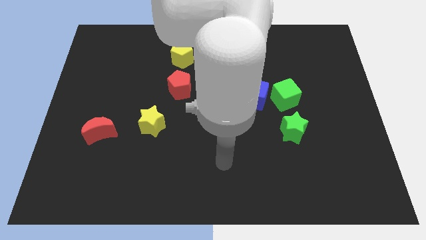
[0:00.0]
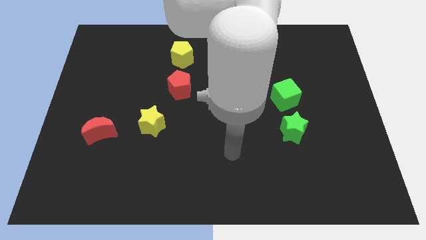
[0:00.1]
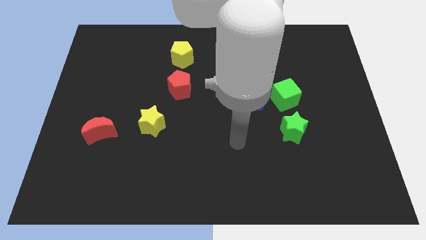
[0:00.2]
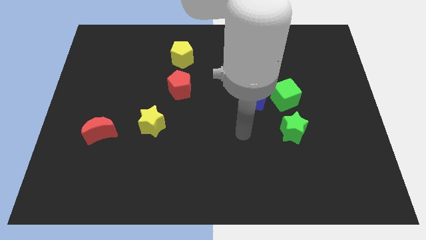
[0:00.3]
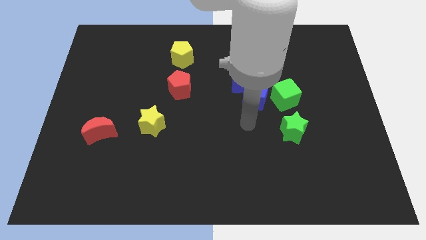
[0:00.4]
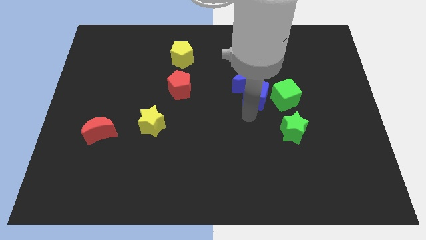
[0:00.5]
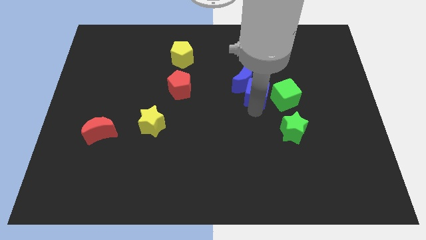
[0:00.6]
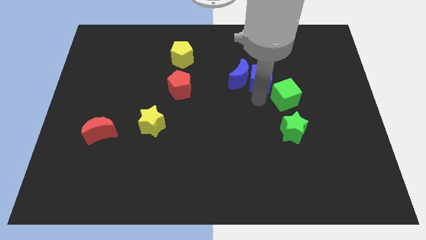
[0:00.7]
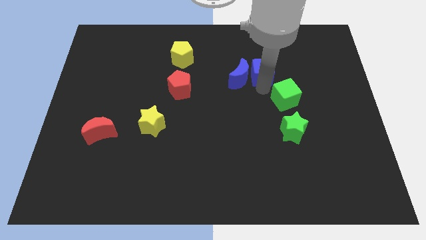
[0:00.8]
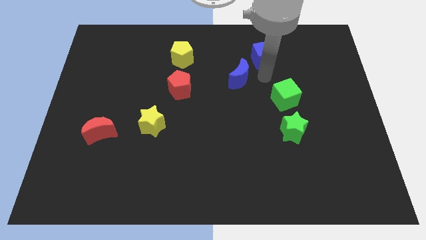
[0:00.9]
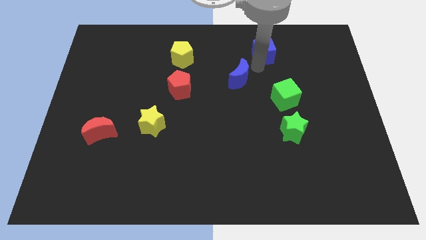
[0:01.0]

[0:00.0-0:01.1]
move the blue moon away from the blue cube

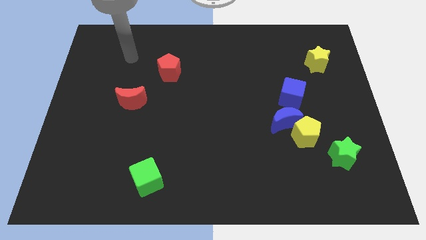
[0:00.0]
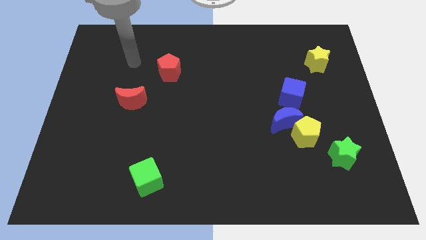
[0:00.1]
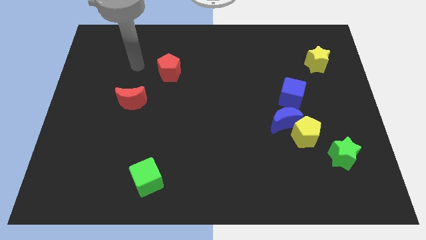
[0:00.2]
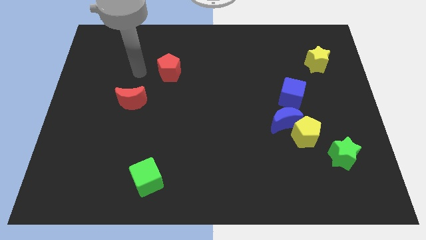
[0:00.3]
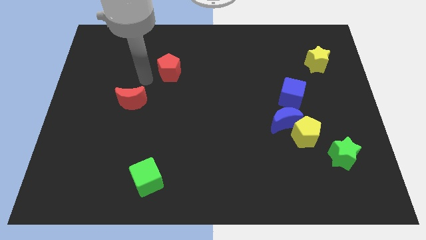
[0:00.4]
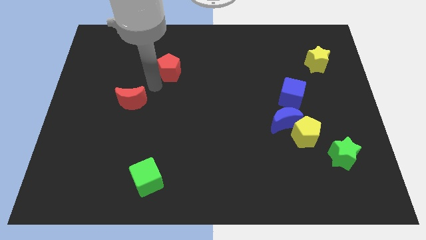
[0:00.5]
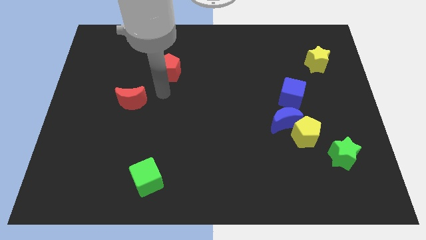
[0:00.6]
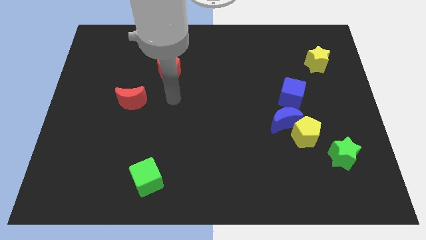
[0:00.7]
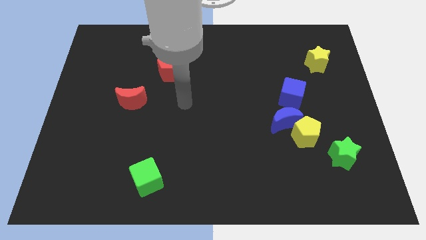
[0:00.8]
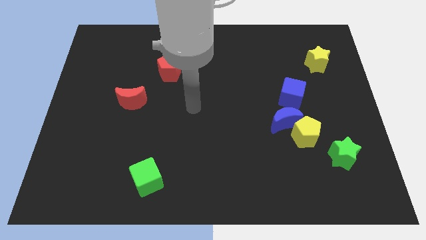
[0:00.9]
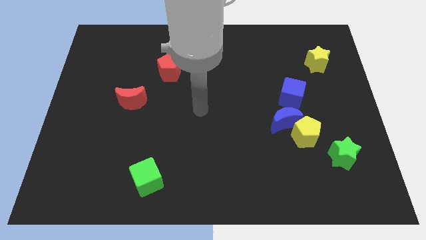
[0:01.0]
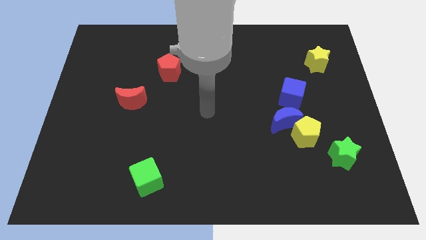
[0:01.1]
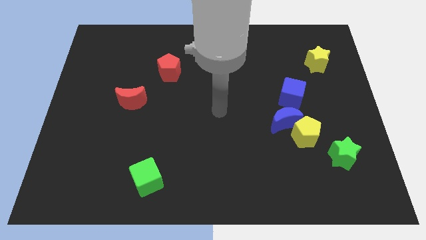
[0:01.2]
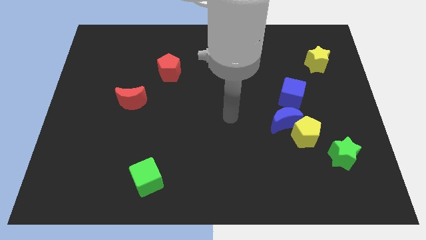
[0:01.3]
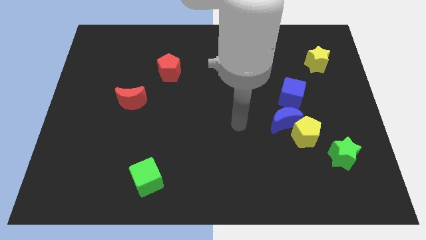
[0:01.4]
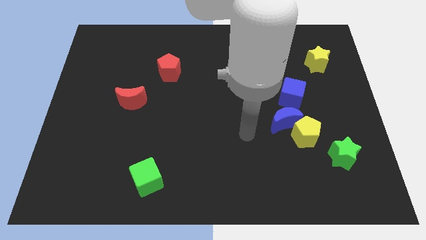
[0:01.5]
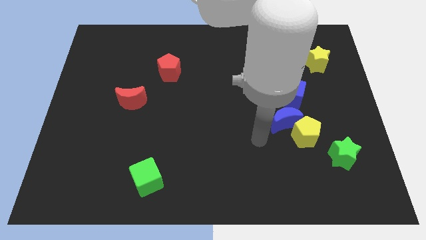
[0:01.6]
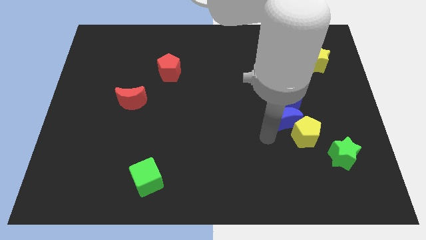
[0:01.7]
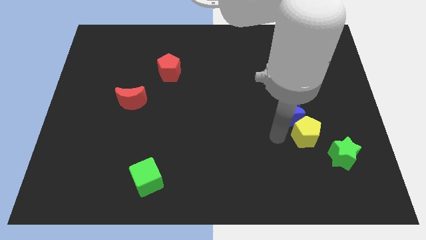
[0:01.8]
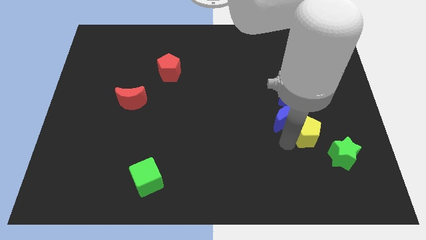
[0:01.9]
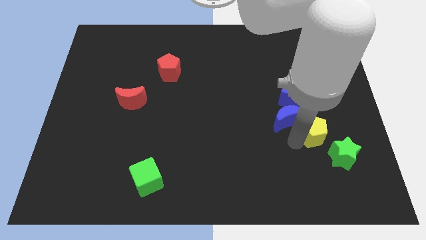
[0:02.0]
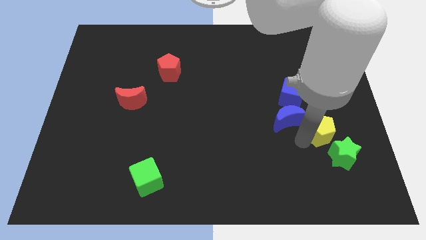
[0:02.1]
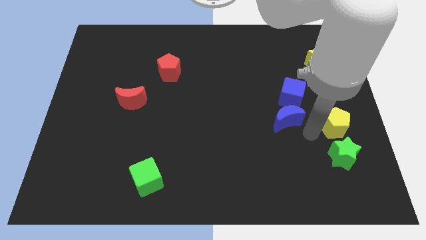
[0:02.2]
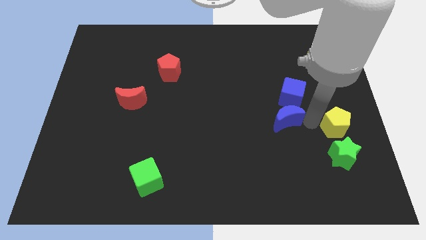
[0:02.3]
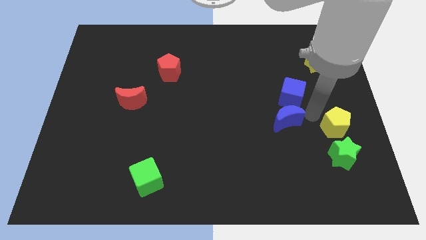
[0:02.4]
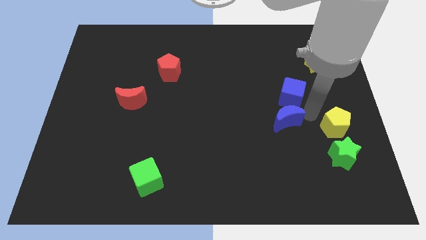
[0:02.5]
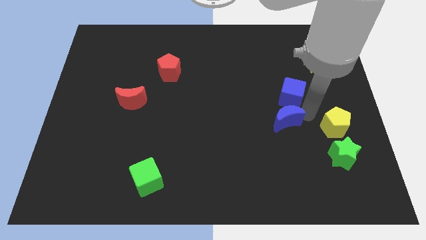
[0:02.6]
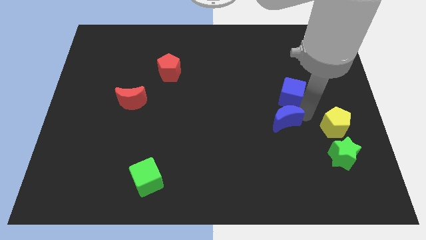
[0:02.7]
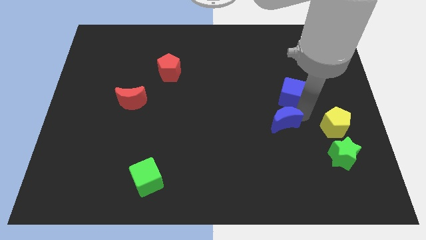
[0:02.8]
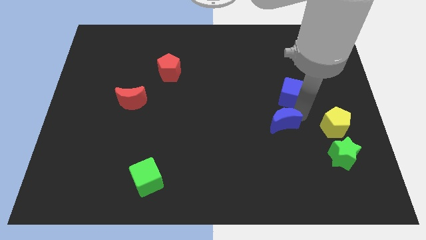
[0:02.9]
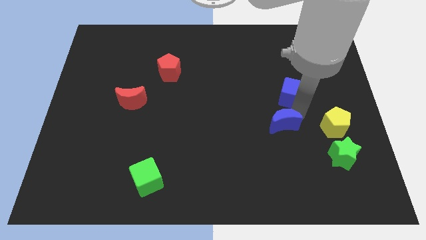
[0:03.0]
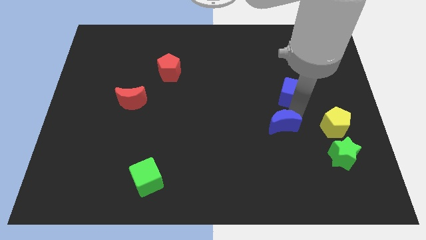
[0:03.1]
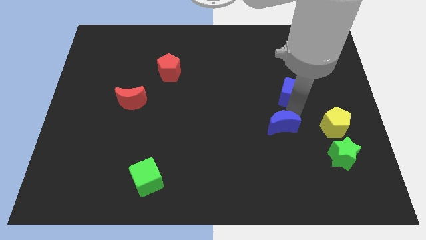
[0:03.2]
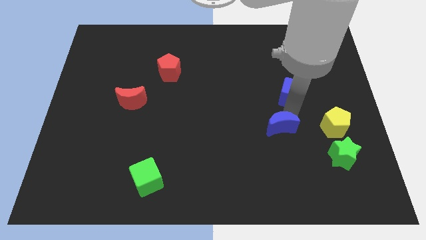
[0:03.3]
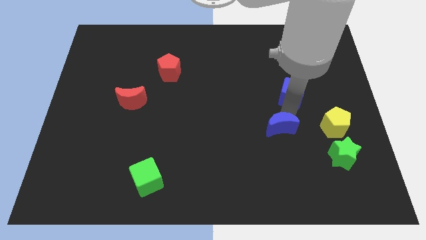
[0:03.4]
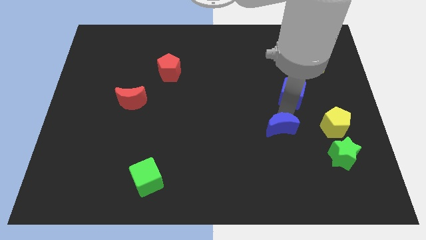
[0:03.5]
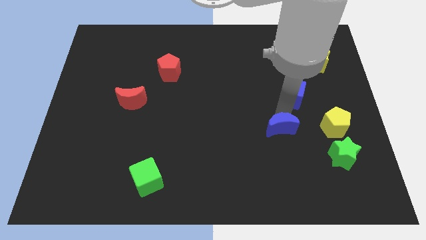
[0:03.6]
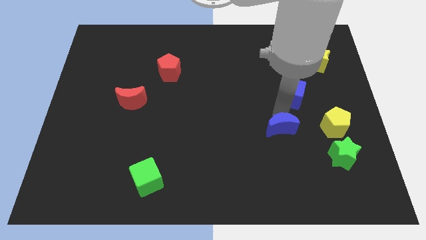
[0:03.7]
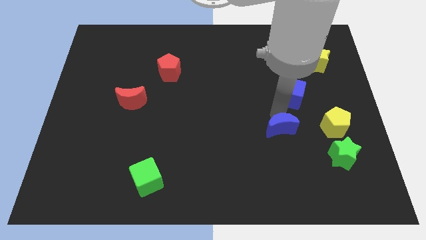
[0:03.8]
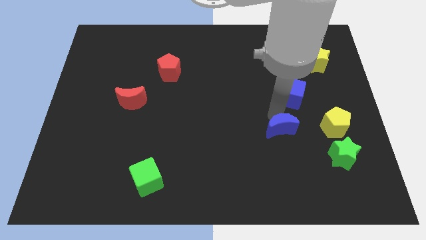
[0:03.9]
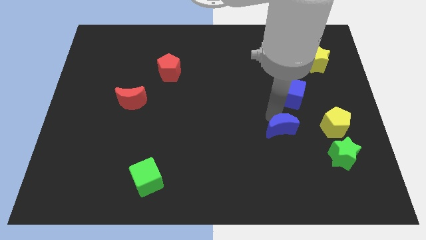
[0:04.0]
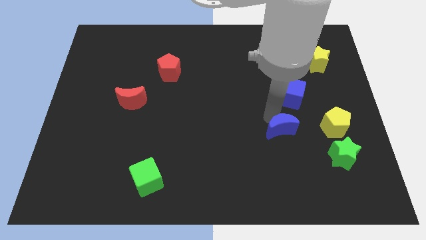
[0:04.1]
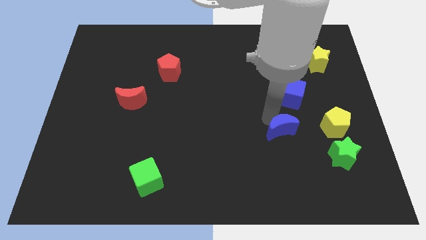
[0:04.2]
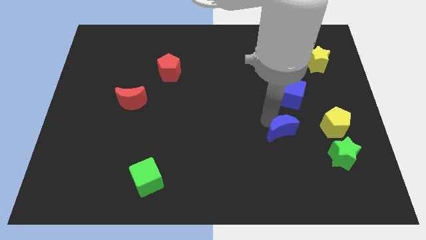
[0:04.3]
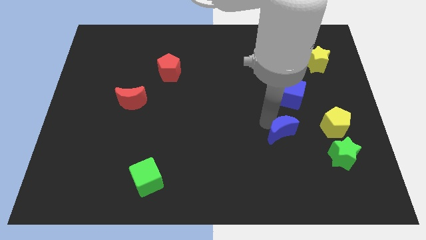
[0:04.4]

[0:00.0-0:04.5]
separate the blue moon from the yellow pentagon and blue cube

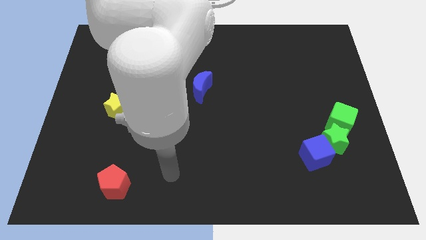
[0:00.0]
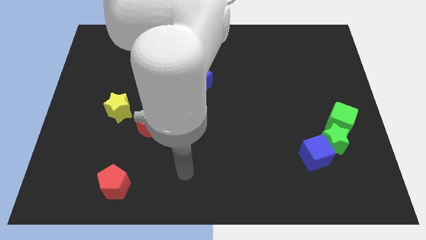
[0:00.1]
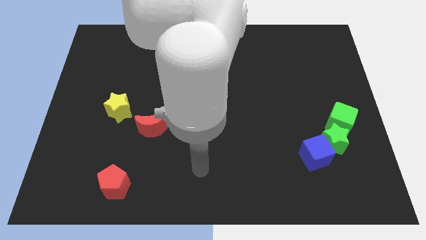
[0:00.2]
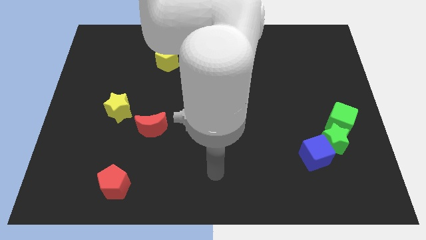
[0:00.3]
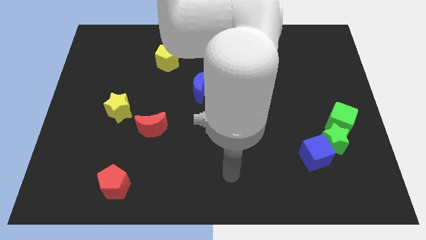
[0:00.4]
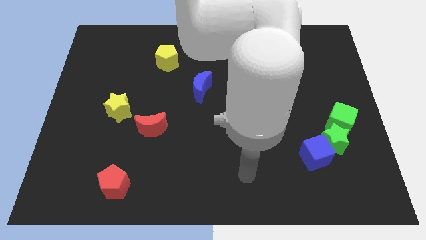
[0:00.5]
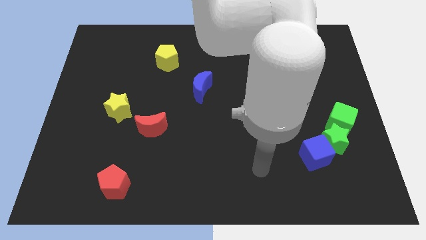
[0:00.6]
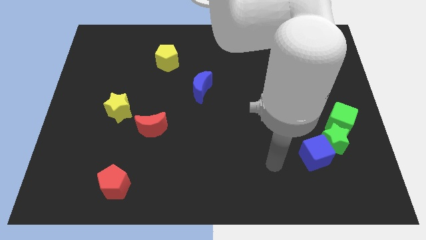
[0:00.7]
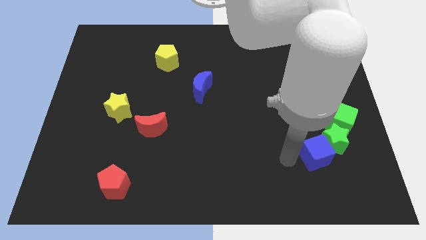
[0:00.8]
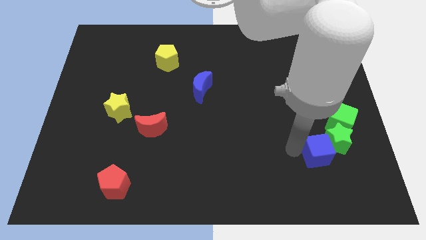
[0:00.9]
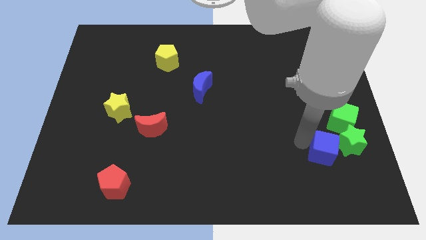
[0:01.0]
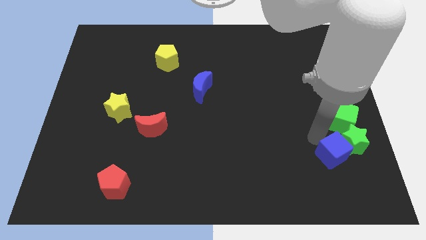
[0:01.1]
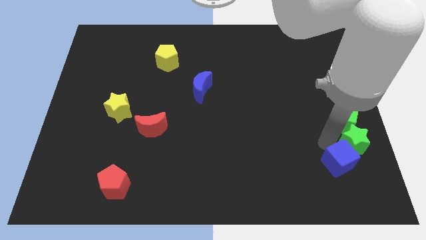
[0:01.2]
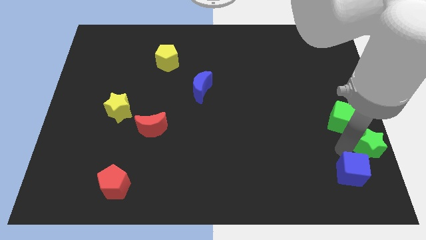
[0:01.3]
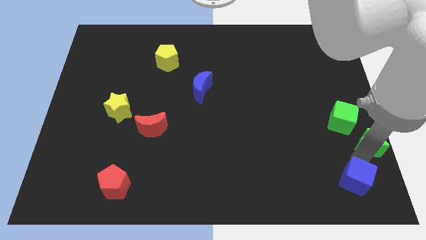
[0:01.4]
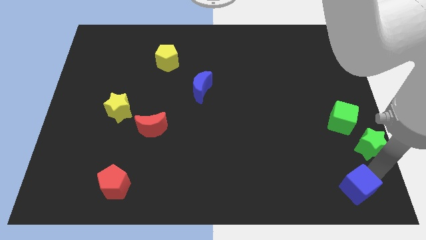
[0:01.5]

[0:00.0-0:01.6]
separate the blue cube from the green star

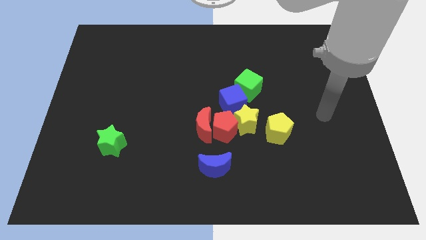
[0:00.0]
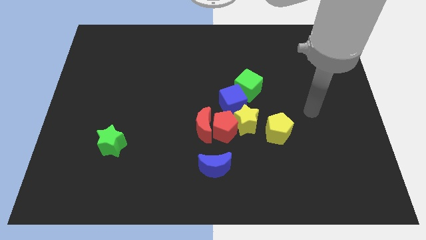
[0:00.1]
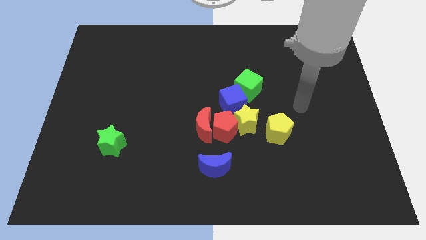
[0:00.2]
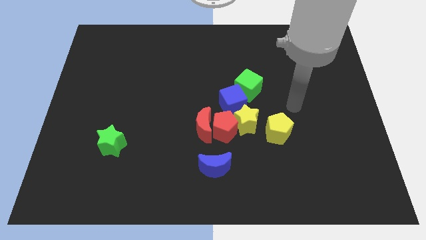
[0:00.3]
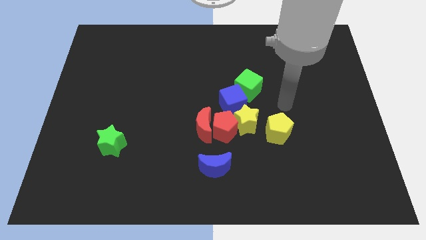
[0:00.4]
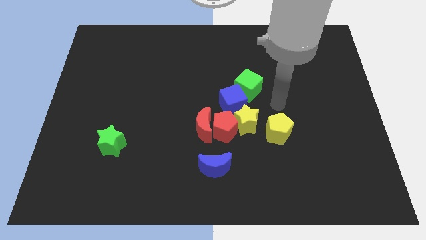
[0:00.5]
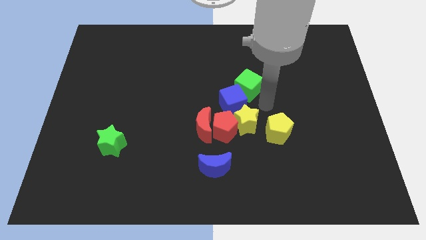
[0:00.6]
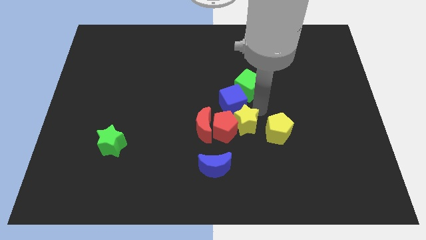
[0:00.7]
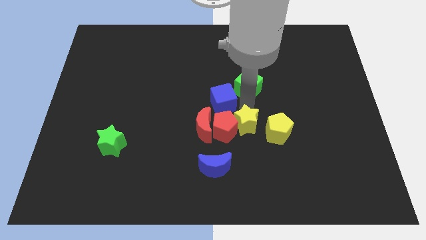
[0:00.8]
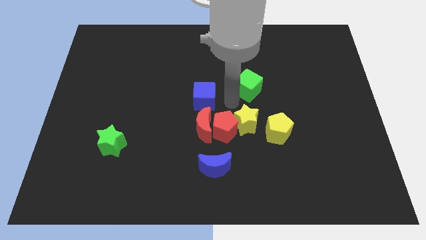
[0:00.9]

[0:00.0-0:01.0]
pull the green cube apart from the blue cube

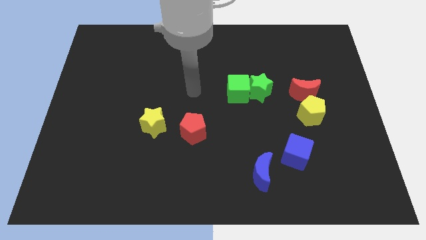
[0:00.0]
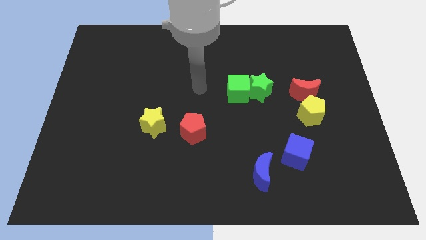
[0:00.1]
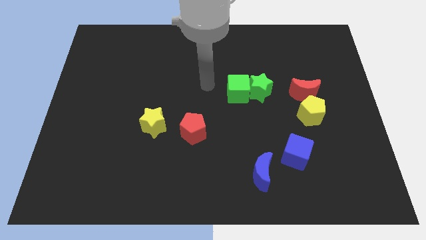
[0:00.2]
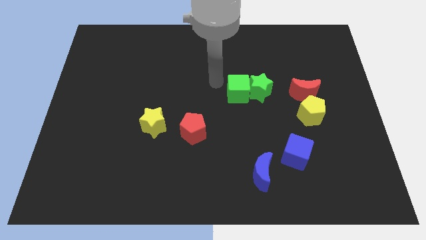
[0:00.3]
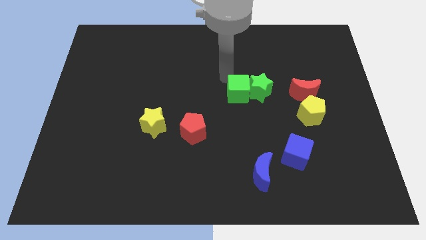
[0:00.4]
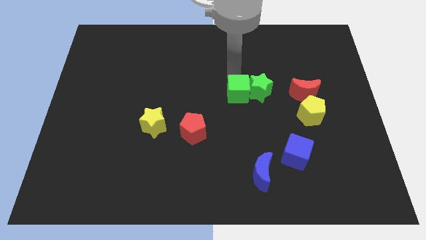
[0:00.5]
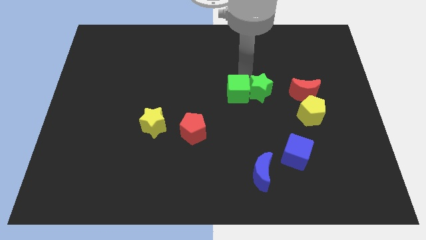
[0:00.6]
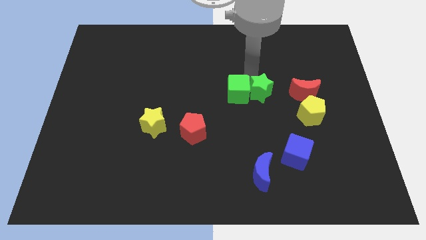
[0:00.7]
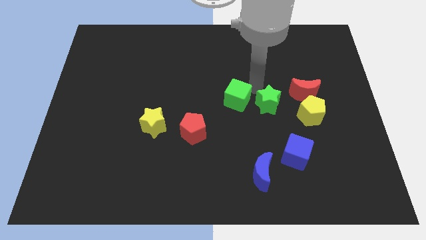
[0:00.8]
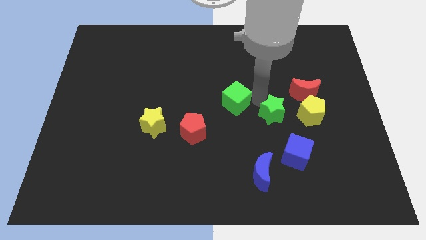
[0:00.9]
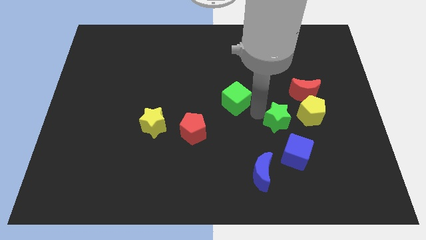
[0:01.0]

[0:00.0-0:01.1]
move the green cube away from the green star

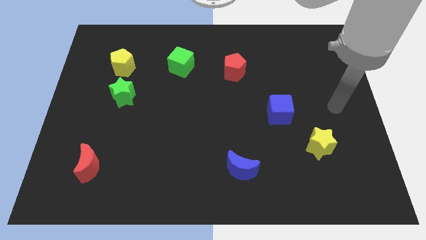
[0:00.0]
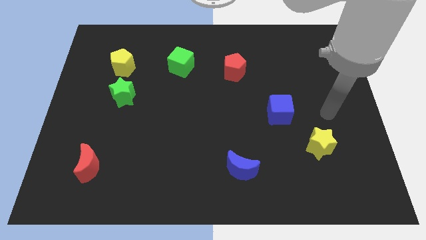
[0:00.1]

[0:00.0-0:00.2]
pull the green star apart from the yellow pentagon
